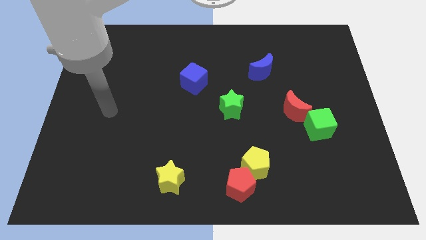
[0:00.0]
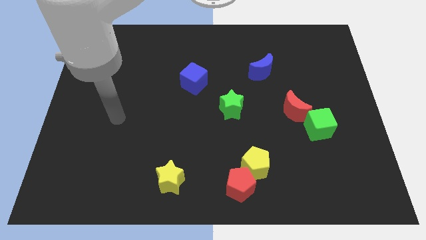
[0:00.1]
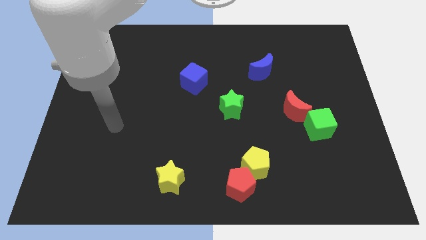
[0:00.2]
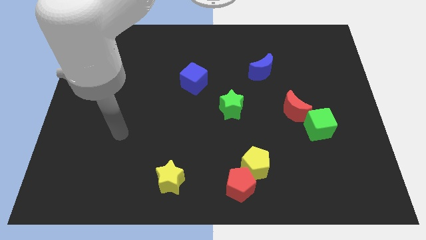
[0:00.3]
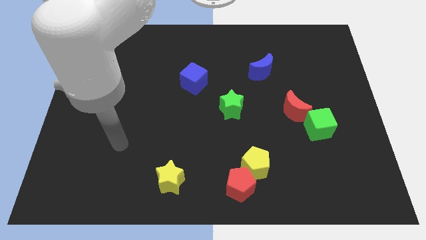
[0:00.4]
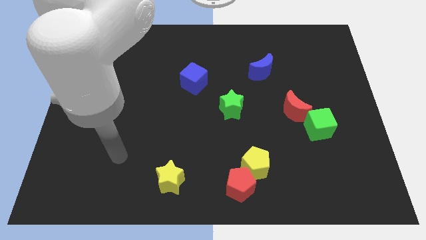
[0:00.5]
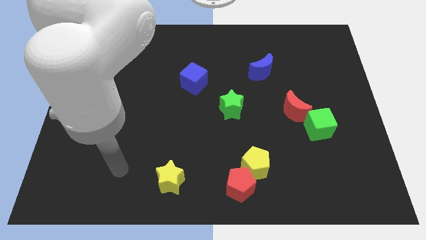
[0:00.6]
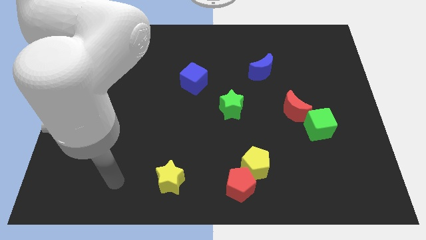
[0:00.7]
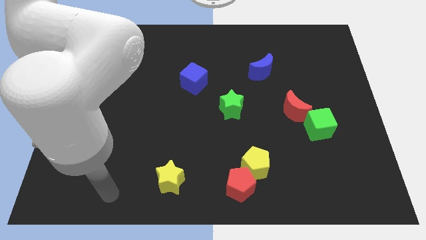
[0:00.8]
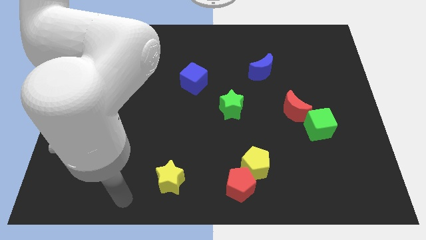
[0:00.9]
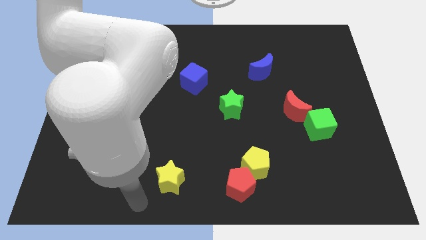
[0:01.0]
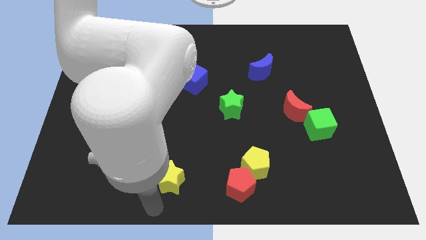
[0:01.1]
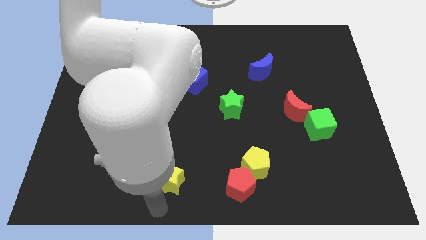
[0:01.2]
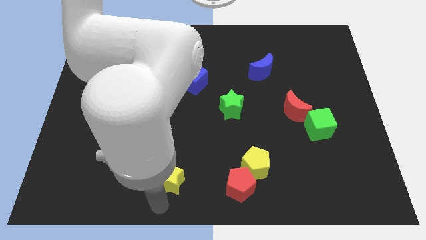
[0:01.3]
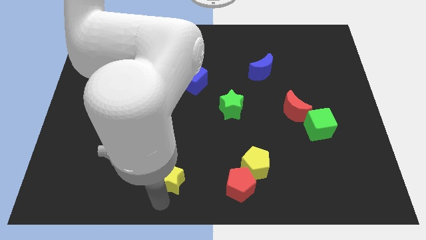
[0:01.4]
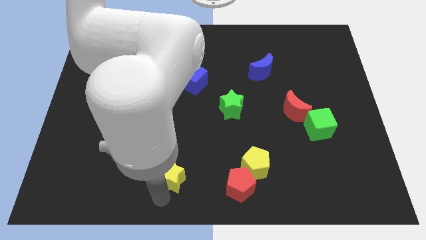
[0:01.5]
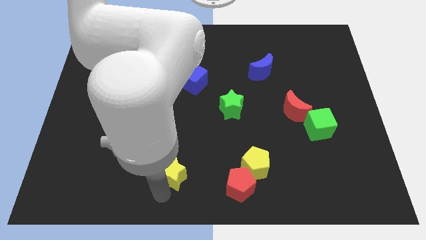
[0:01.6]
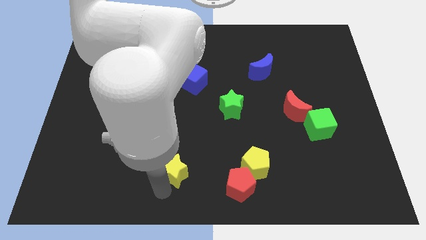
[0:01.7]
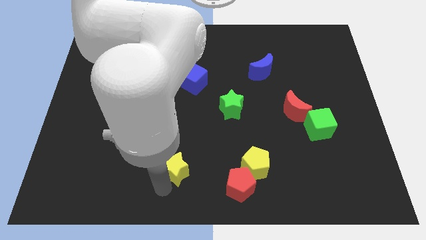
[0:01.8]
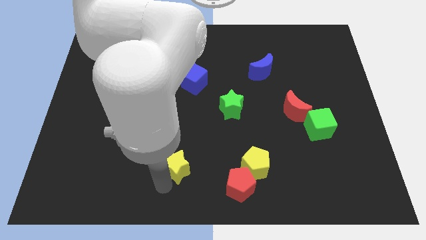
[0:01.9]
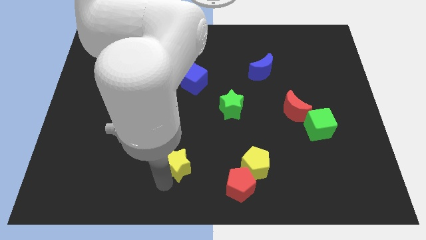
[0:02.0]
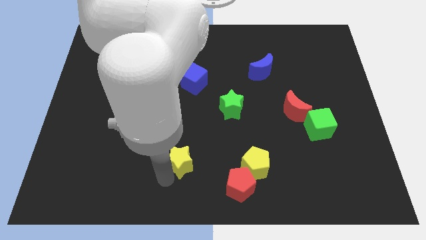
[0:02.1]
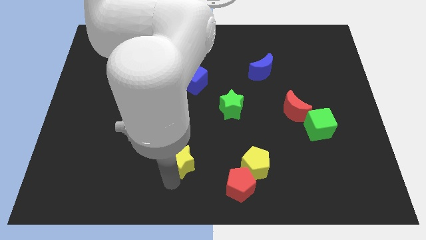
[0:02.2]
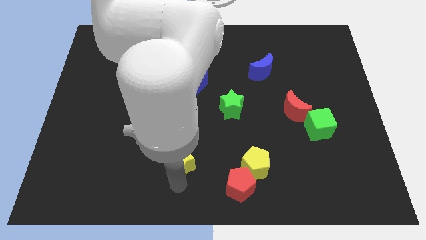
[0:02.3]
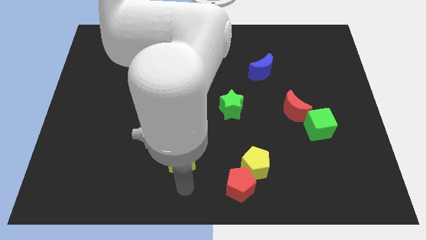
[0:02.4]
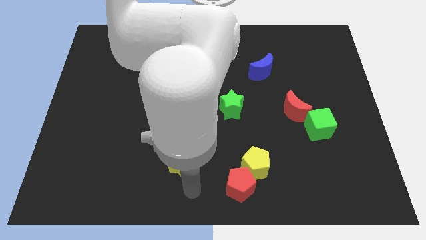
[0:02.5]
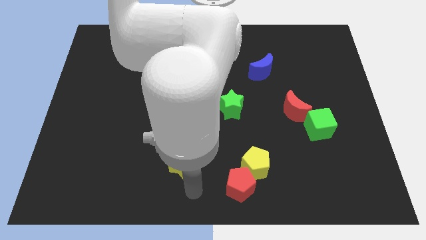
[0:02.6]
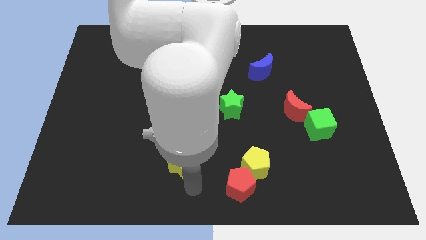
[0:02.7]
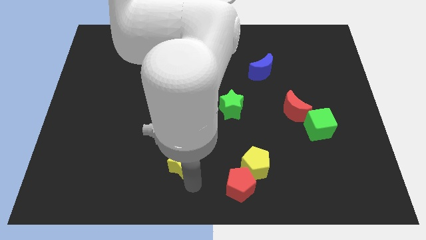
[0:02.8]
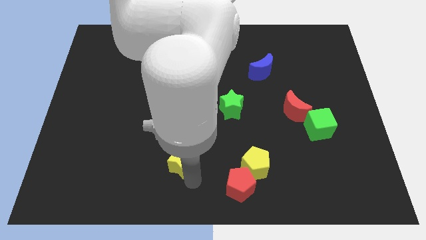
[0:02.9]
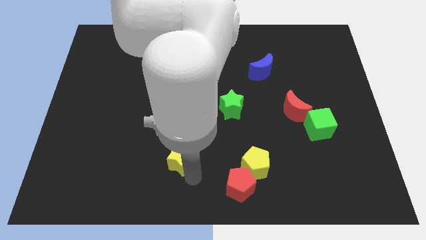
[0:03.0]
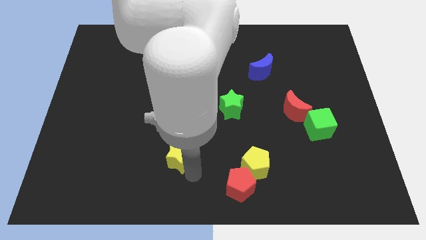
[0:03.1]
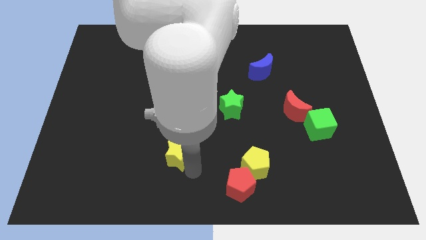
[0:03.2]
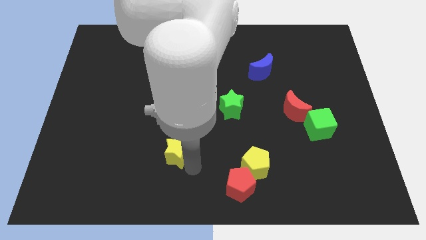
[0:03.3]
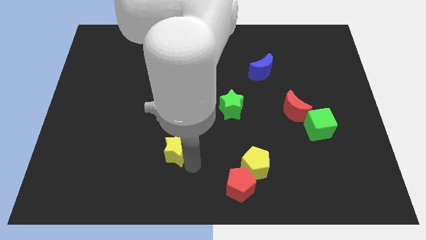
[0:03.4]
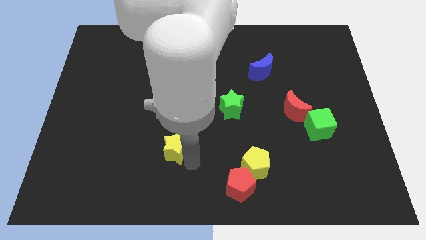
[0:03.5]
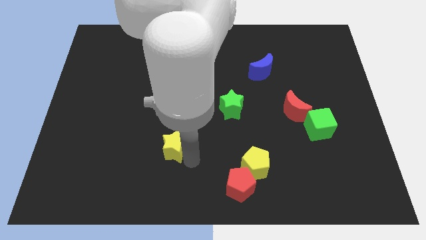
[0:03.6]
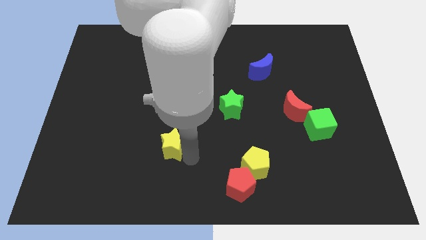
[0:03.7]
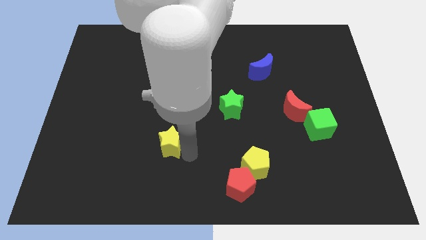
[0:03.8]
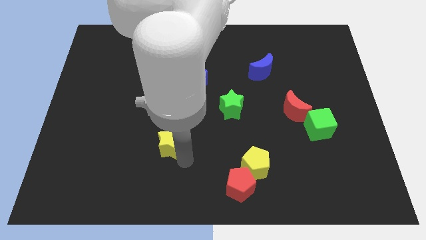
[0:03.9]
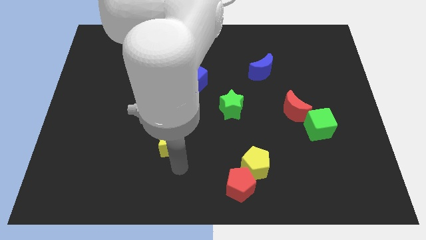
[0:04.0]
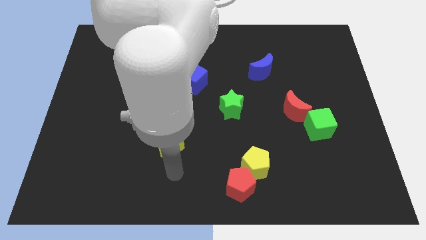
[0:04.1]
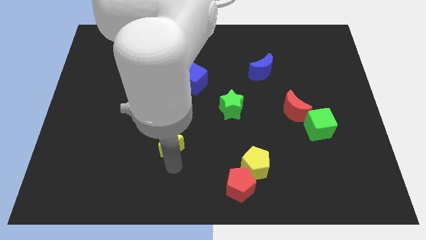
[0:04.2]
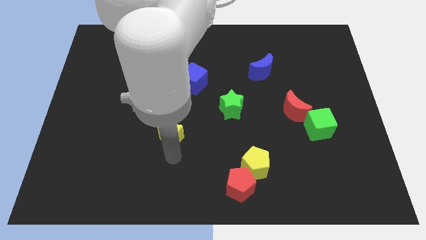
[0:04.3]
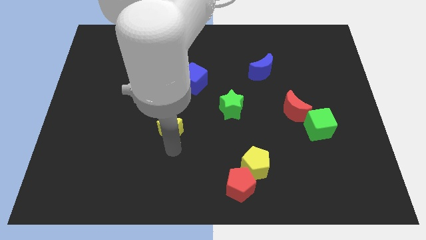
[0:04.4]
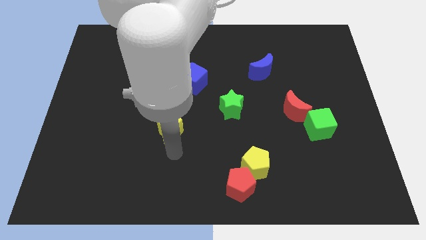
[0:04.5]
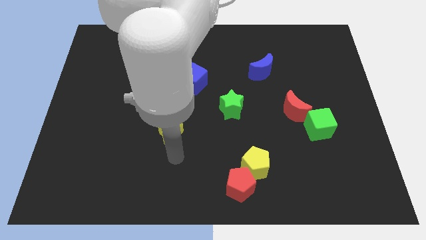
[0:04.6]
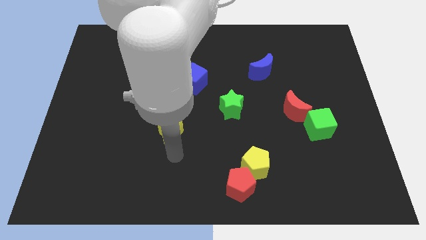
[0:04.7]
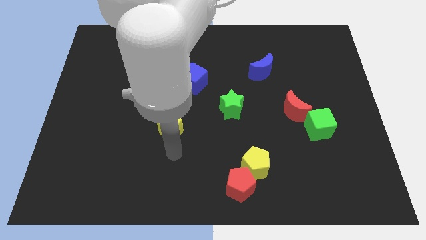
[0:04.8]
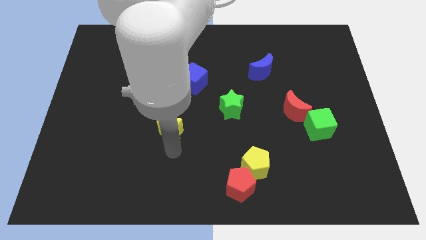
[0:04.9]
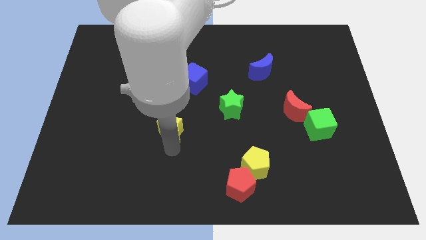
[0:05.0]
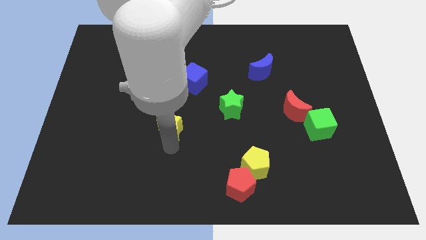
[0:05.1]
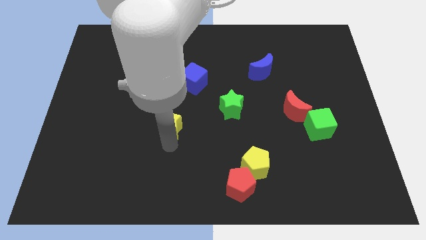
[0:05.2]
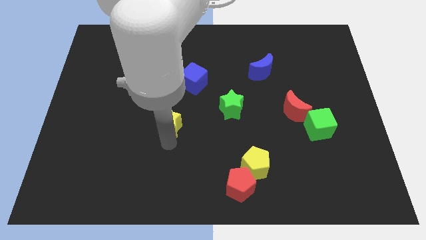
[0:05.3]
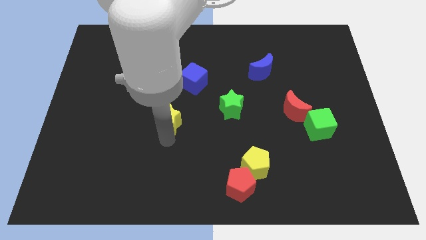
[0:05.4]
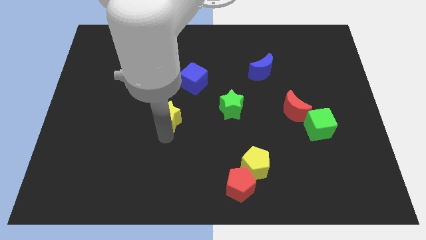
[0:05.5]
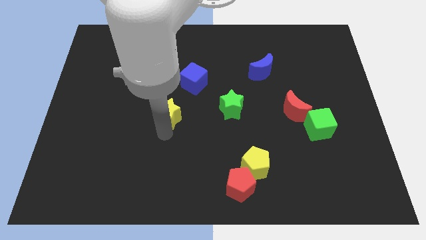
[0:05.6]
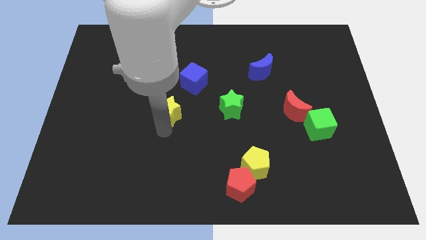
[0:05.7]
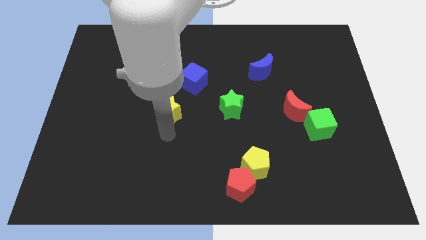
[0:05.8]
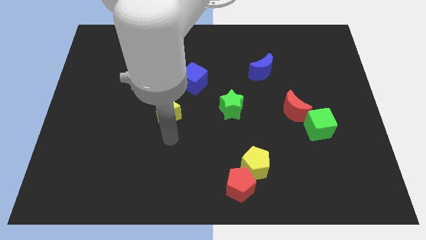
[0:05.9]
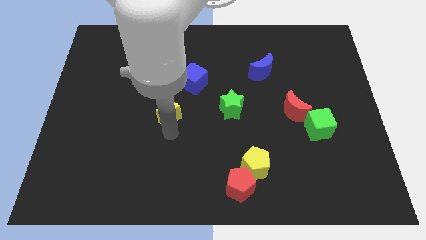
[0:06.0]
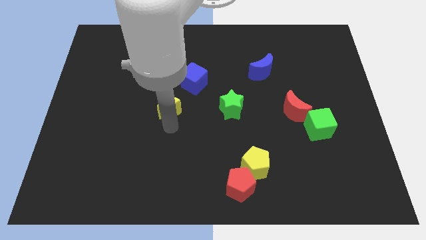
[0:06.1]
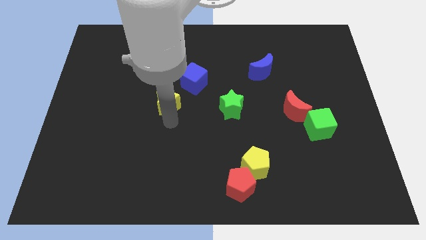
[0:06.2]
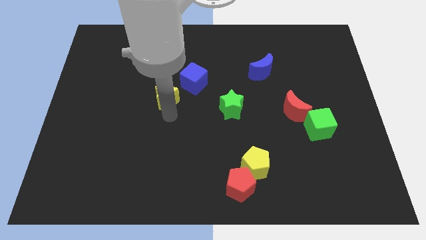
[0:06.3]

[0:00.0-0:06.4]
push the yellow star upwards

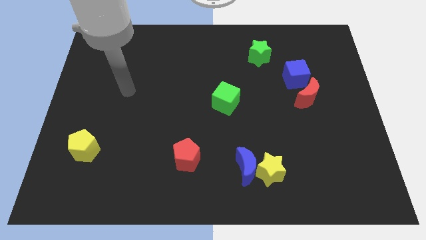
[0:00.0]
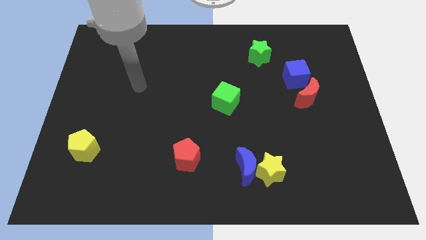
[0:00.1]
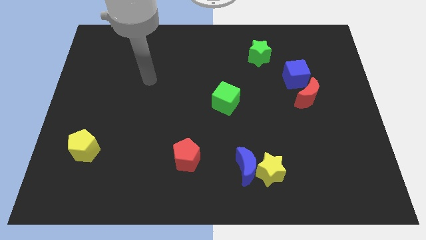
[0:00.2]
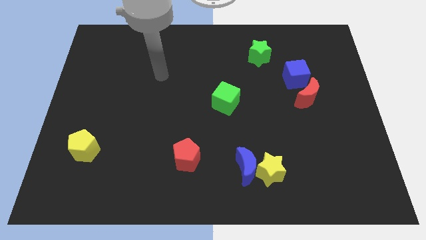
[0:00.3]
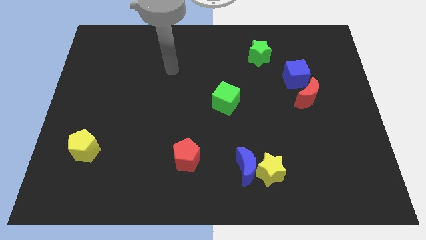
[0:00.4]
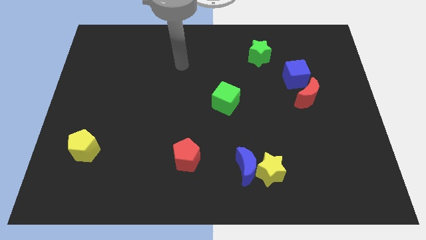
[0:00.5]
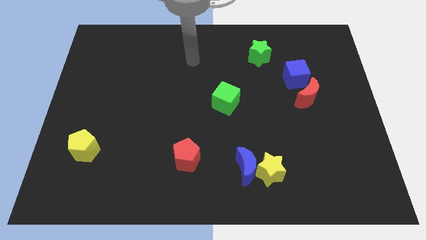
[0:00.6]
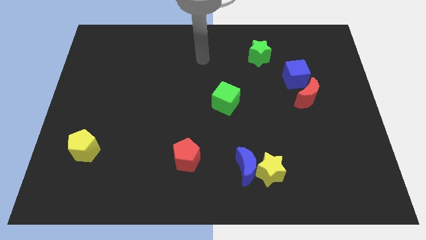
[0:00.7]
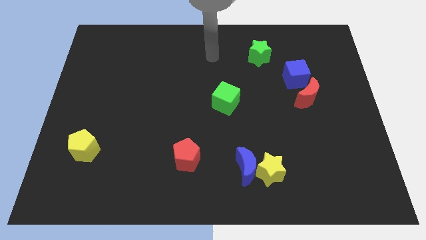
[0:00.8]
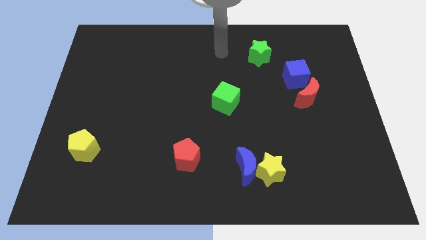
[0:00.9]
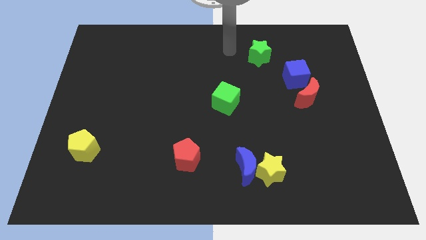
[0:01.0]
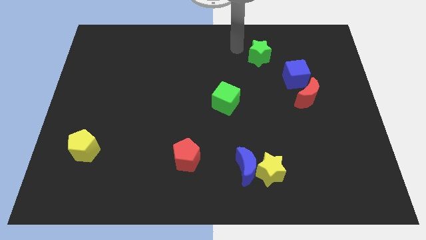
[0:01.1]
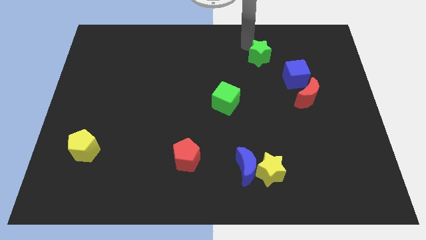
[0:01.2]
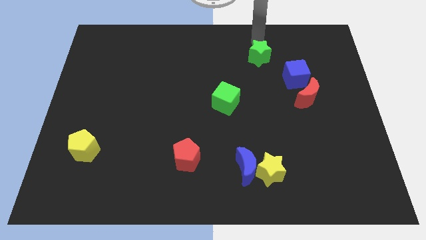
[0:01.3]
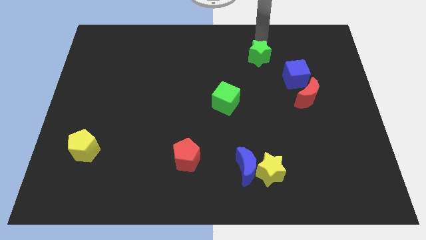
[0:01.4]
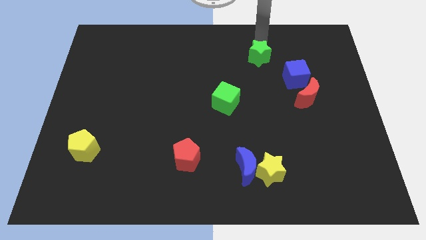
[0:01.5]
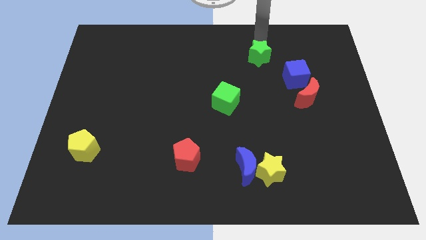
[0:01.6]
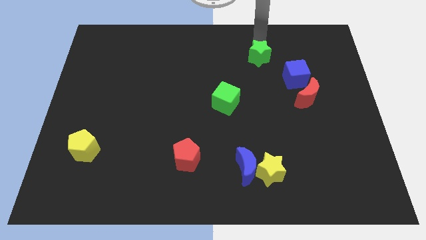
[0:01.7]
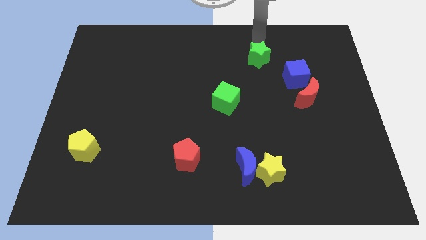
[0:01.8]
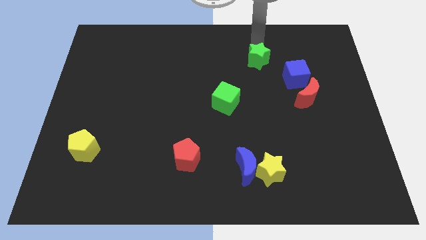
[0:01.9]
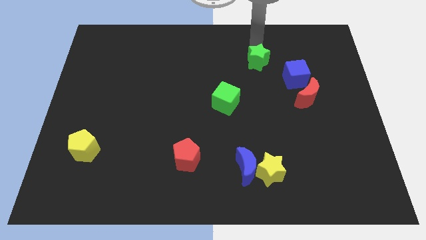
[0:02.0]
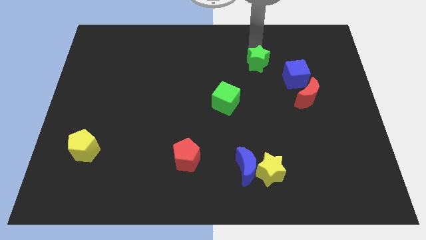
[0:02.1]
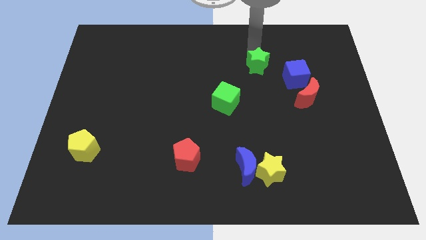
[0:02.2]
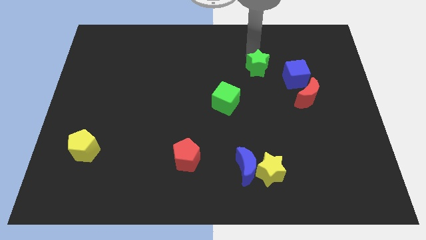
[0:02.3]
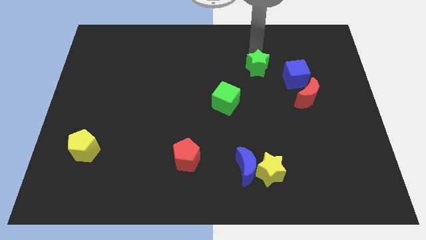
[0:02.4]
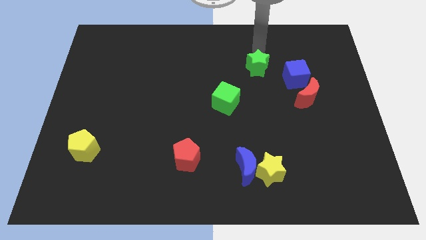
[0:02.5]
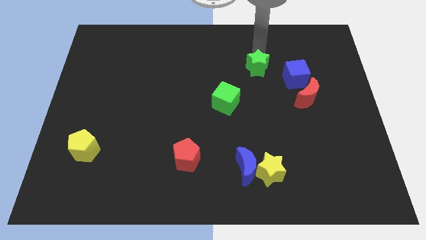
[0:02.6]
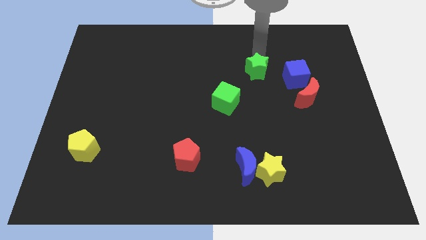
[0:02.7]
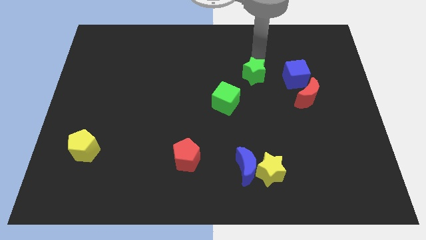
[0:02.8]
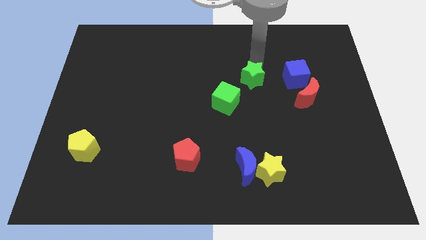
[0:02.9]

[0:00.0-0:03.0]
move the green star downwards slightly
